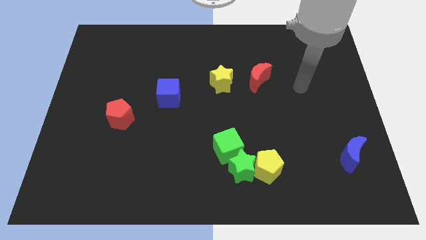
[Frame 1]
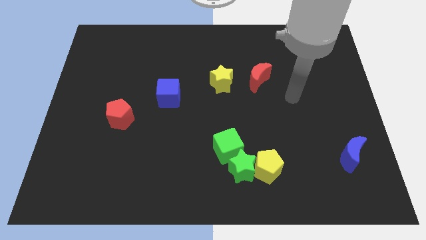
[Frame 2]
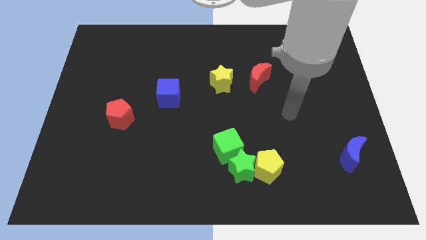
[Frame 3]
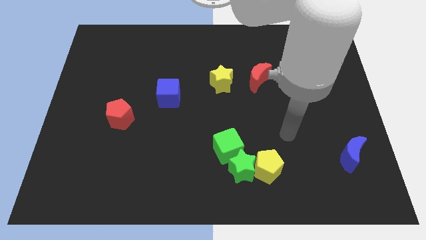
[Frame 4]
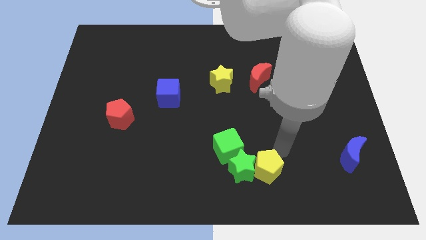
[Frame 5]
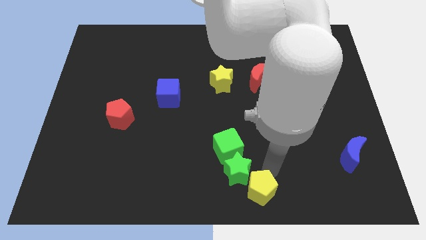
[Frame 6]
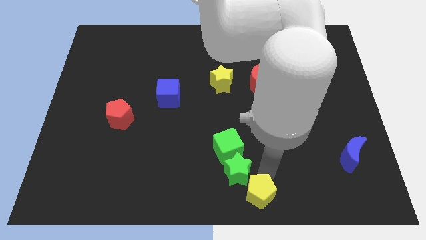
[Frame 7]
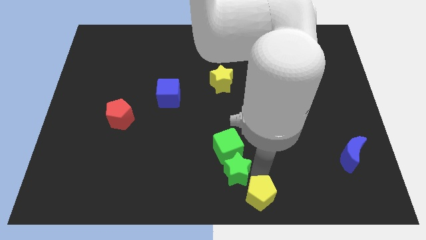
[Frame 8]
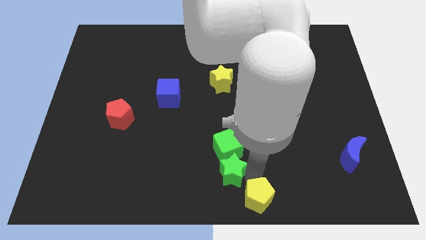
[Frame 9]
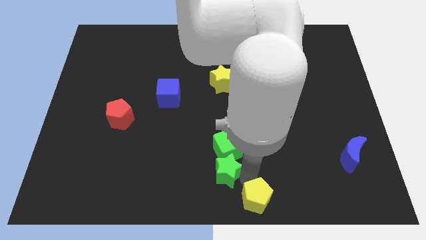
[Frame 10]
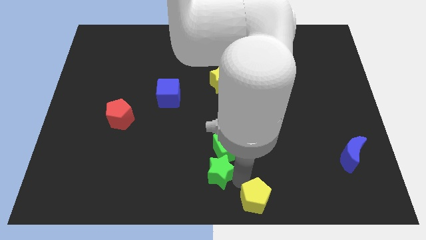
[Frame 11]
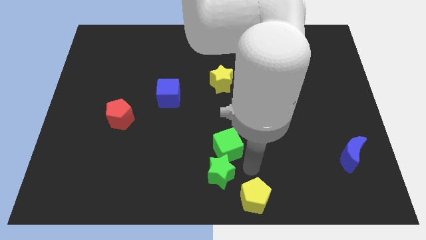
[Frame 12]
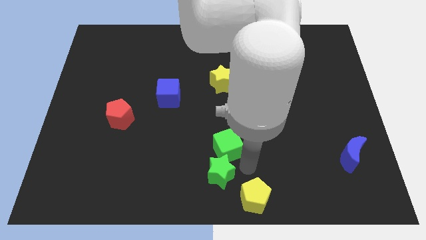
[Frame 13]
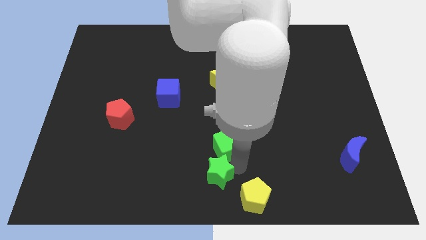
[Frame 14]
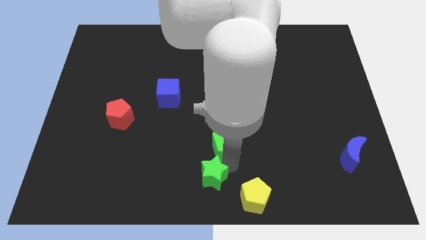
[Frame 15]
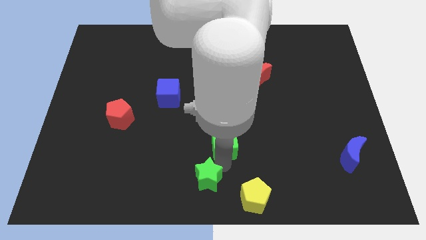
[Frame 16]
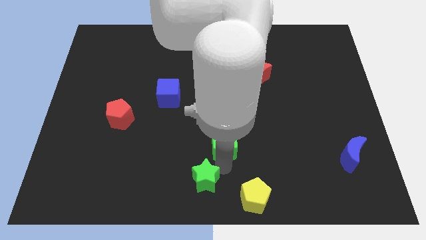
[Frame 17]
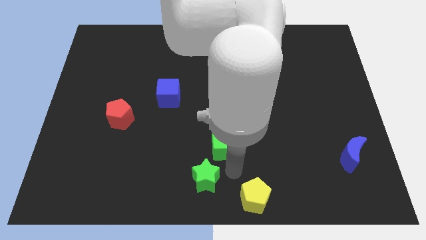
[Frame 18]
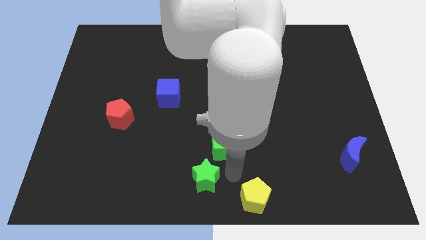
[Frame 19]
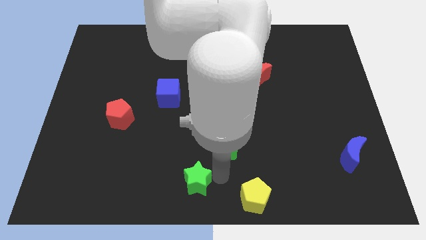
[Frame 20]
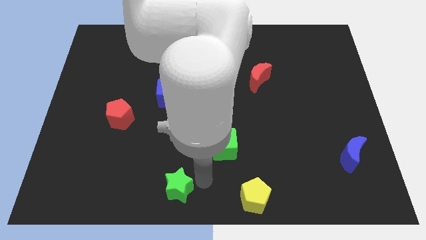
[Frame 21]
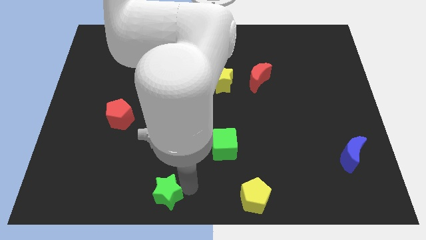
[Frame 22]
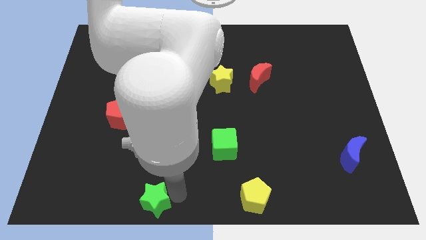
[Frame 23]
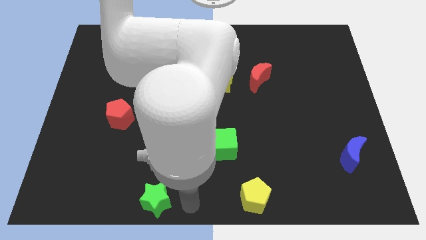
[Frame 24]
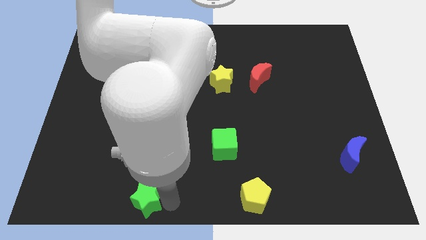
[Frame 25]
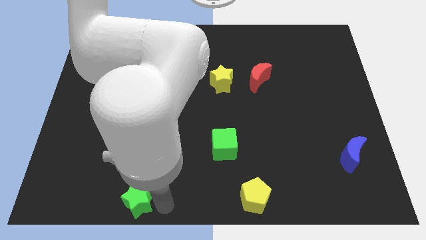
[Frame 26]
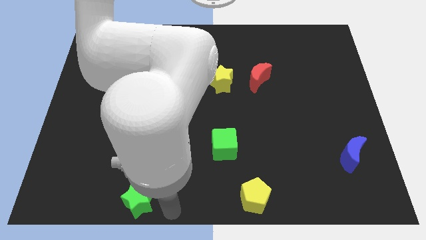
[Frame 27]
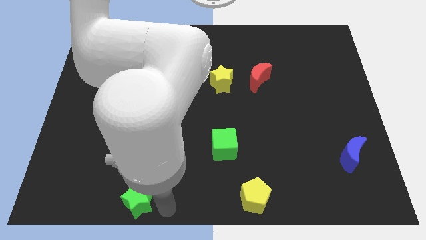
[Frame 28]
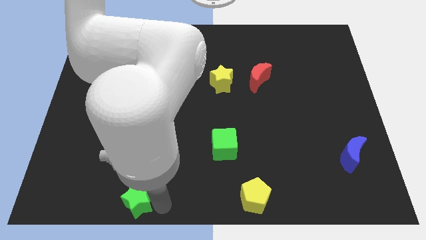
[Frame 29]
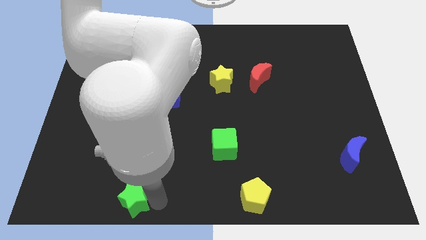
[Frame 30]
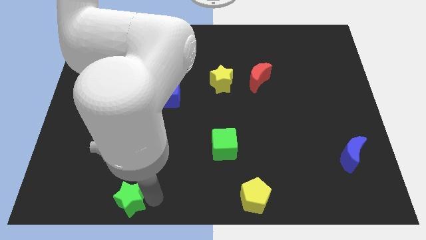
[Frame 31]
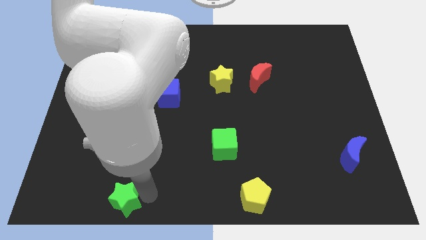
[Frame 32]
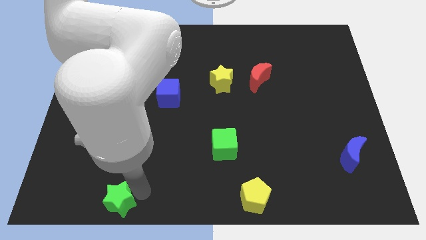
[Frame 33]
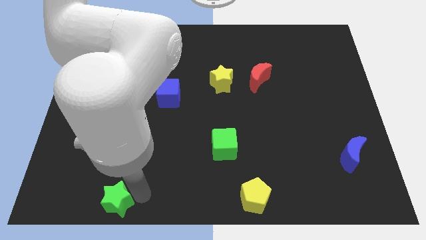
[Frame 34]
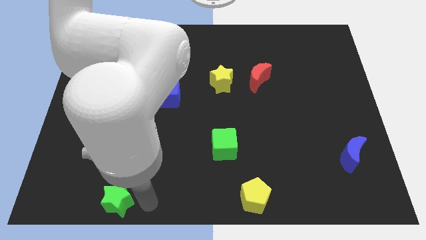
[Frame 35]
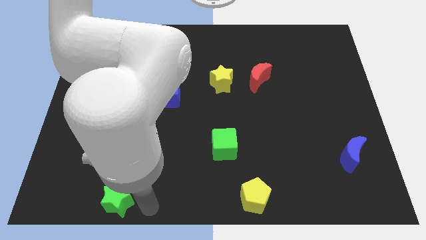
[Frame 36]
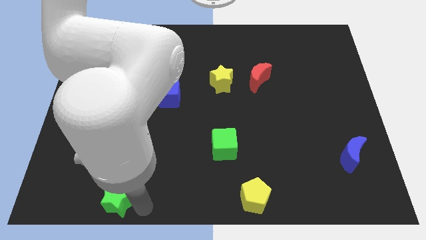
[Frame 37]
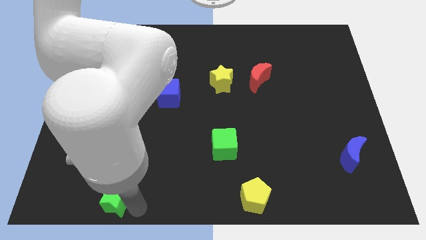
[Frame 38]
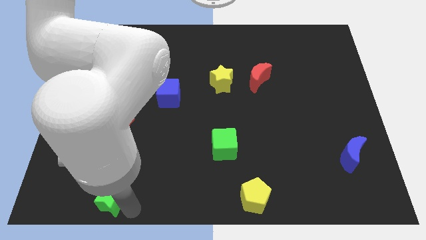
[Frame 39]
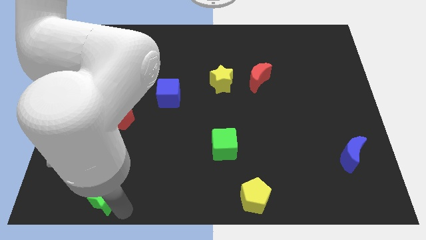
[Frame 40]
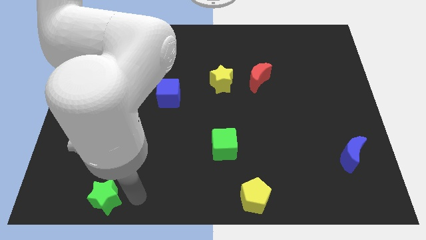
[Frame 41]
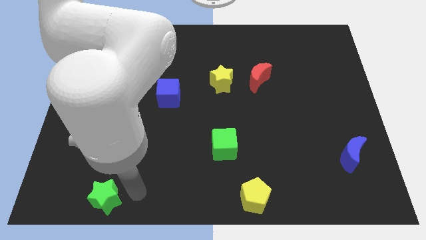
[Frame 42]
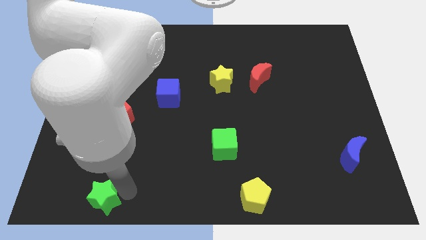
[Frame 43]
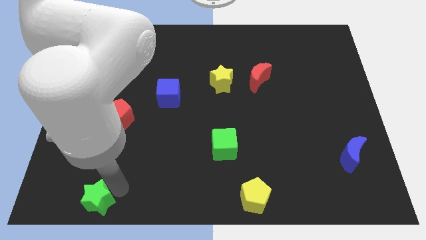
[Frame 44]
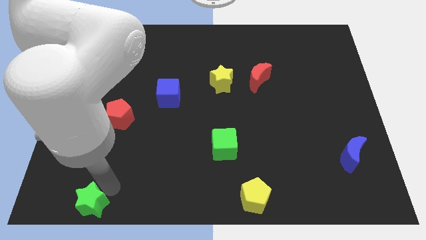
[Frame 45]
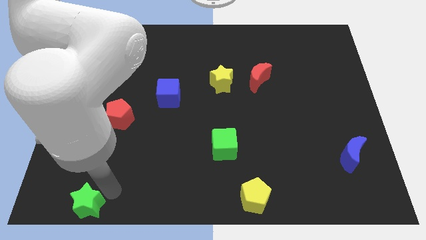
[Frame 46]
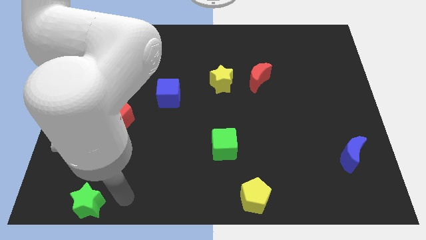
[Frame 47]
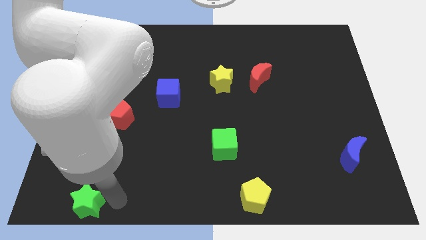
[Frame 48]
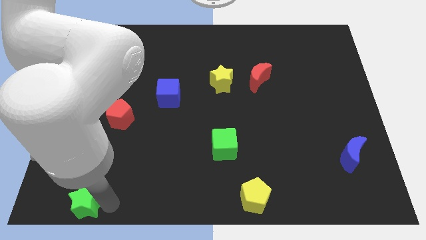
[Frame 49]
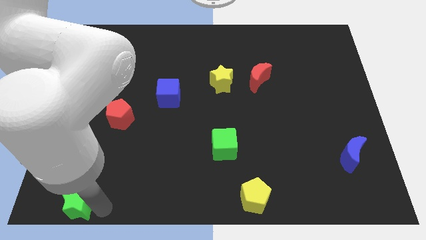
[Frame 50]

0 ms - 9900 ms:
push the green star to the bottom left of the board

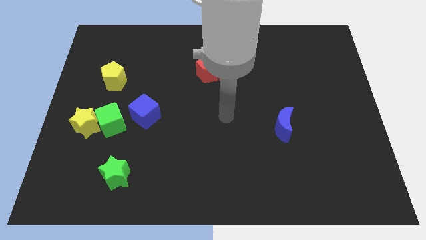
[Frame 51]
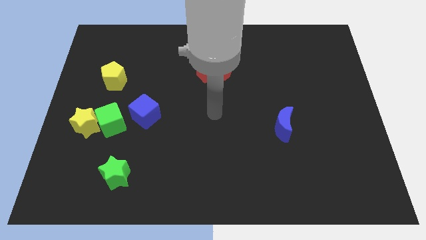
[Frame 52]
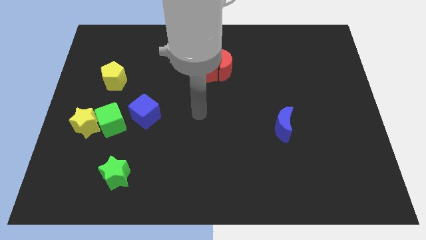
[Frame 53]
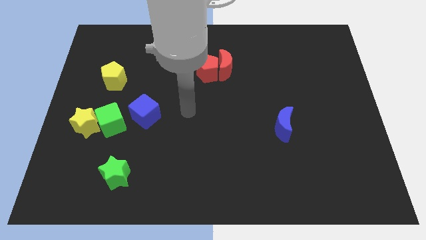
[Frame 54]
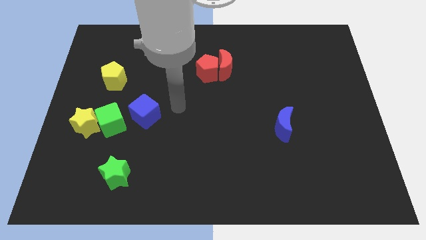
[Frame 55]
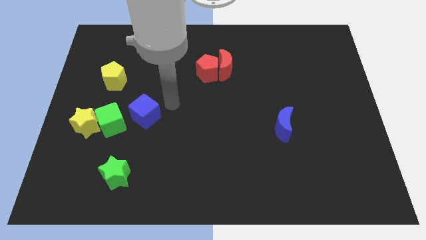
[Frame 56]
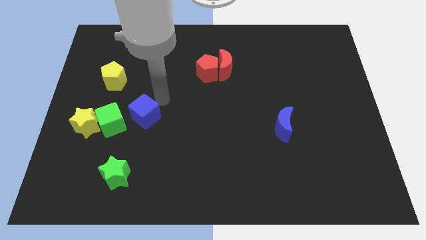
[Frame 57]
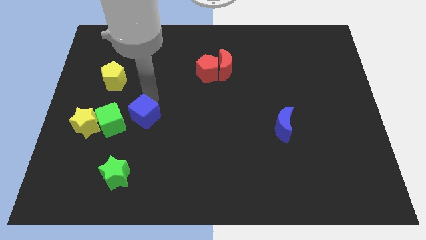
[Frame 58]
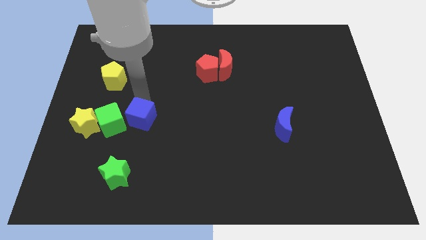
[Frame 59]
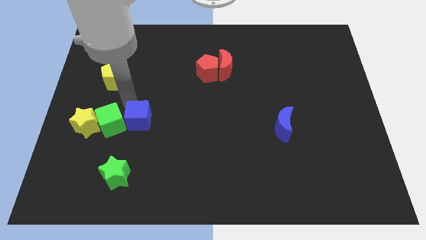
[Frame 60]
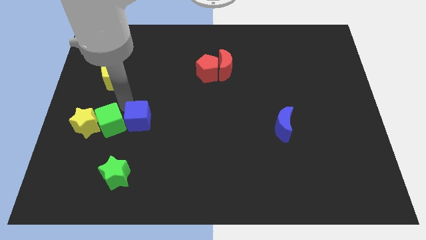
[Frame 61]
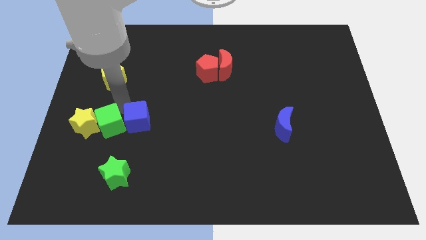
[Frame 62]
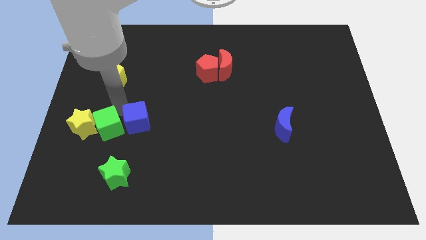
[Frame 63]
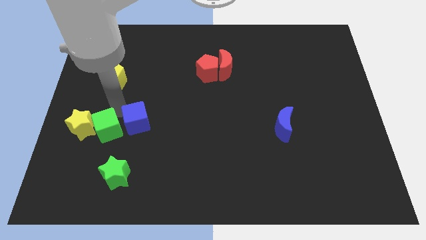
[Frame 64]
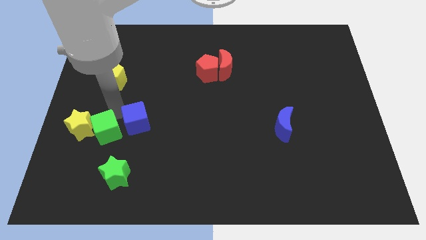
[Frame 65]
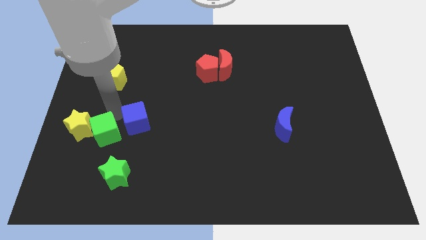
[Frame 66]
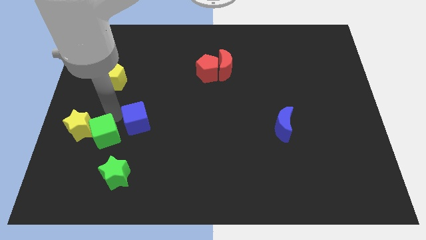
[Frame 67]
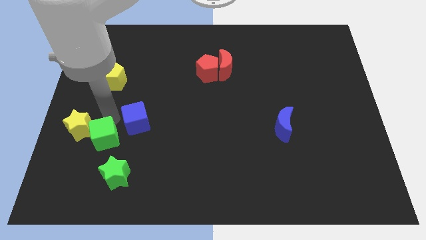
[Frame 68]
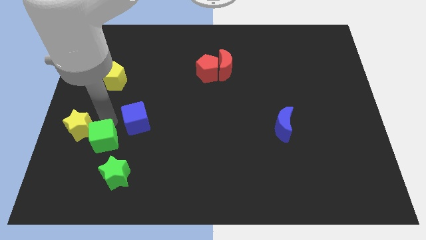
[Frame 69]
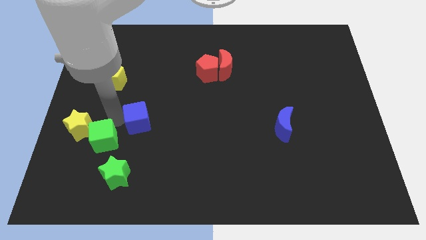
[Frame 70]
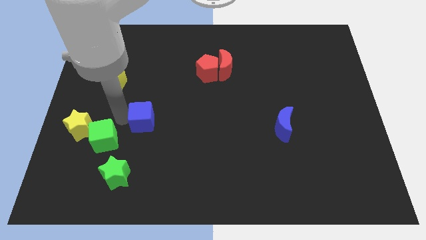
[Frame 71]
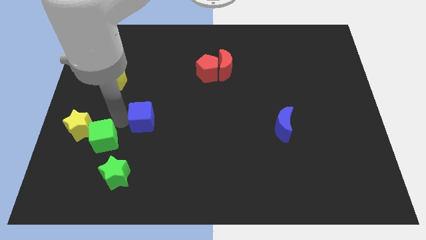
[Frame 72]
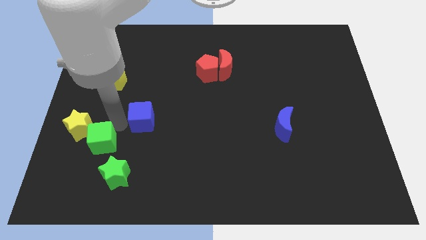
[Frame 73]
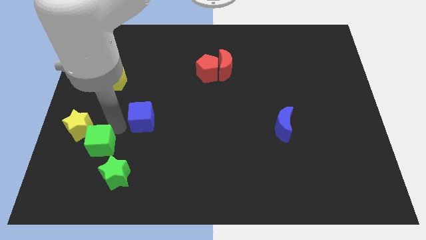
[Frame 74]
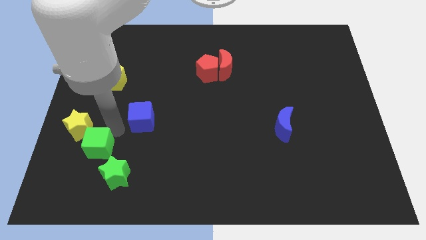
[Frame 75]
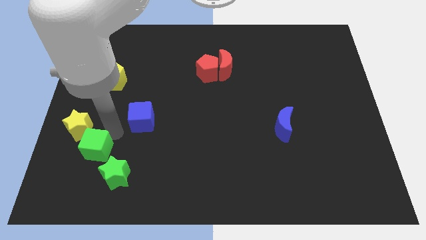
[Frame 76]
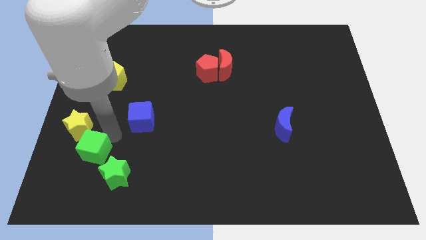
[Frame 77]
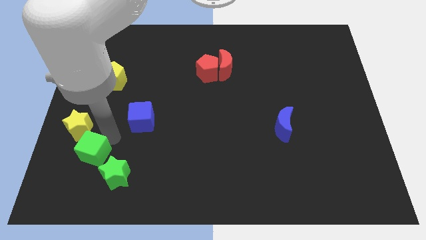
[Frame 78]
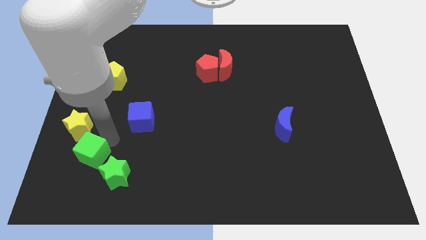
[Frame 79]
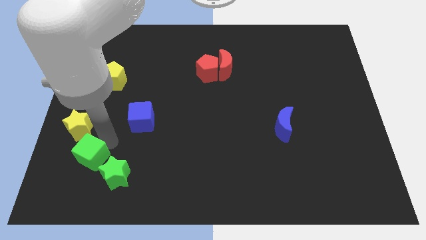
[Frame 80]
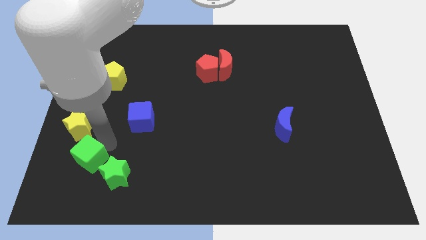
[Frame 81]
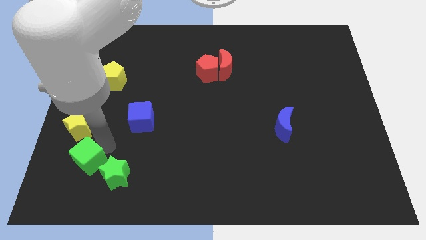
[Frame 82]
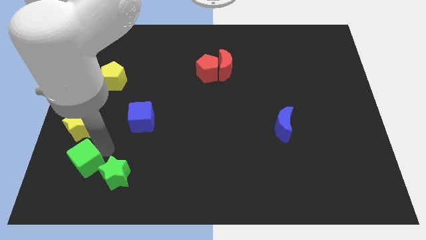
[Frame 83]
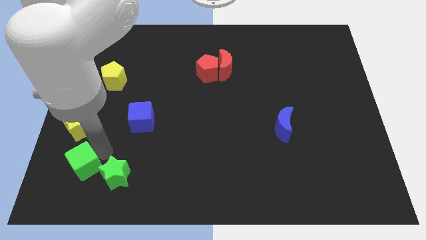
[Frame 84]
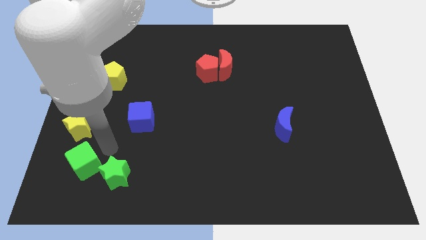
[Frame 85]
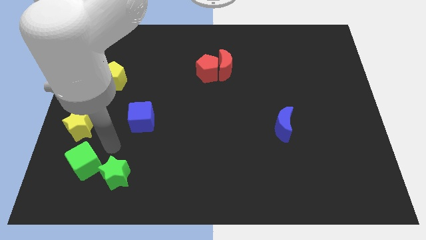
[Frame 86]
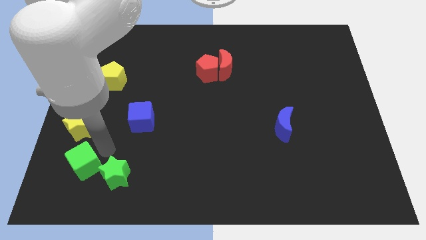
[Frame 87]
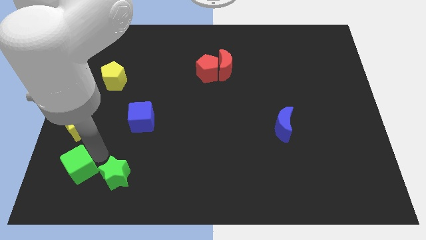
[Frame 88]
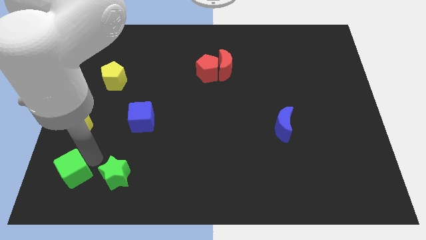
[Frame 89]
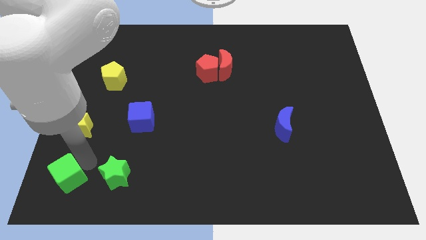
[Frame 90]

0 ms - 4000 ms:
put the green cube to the bottom left of the board
